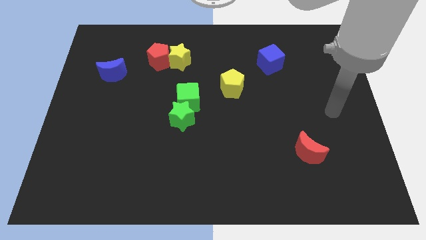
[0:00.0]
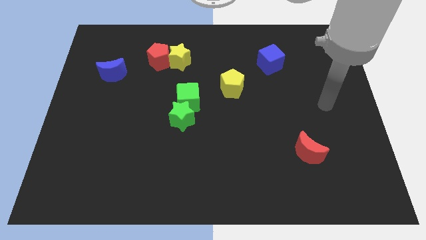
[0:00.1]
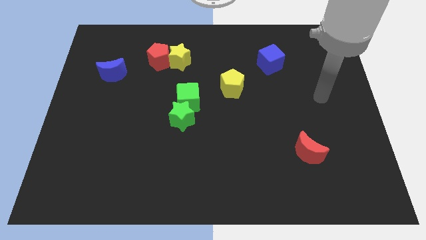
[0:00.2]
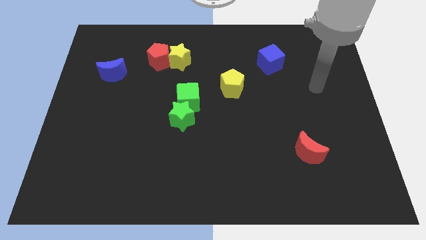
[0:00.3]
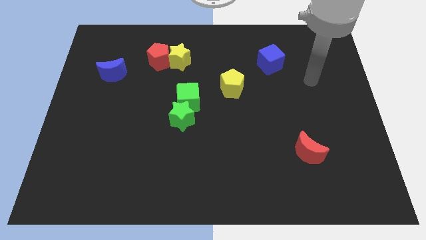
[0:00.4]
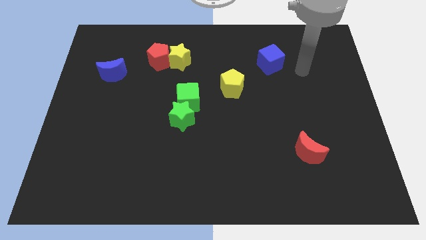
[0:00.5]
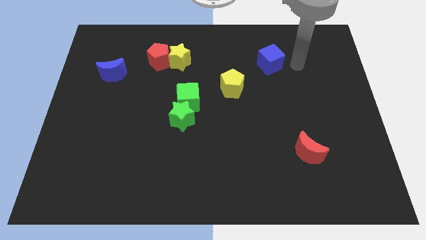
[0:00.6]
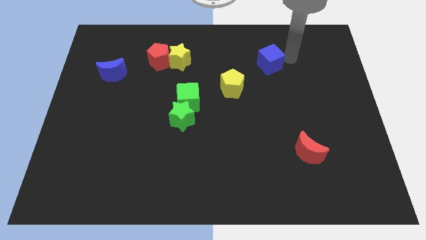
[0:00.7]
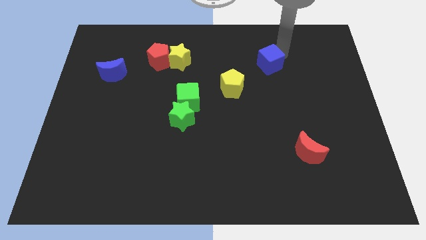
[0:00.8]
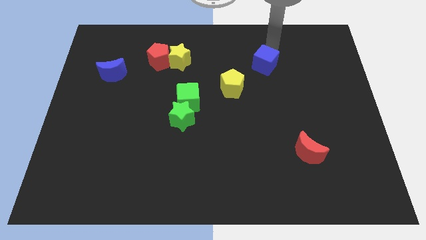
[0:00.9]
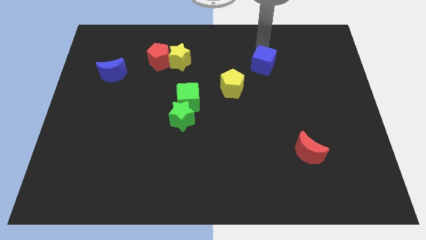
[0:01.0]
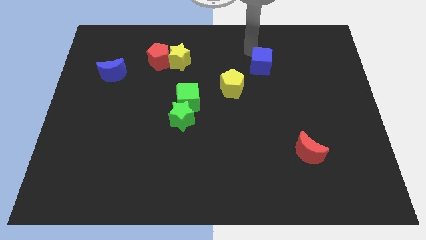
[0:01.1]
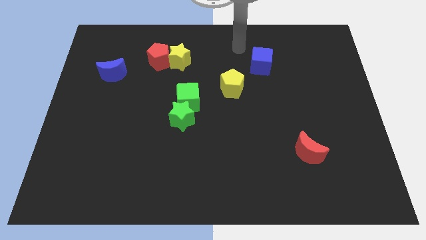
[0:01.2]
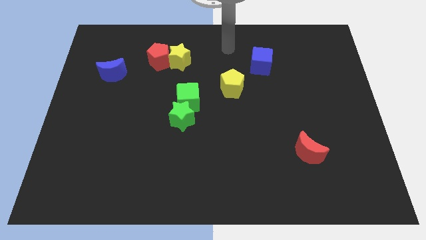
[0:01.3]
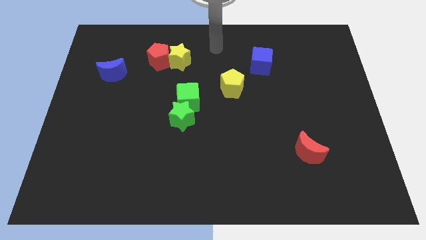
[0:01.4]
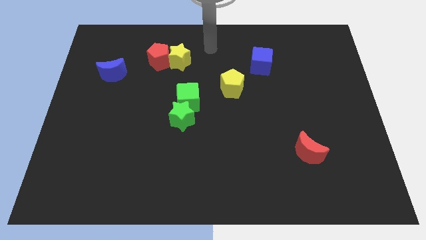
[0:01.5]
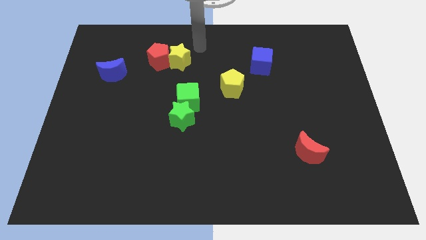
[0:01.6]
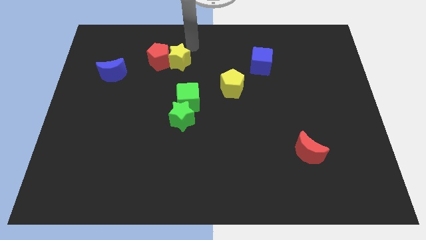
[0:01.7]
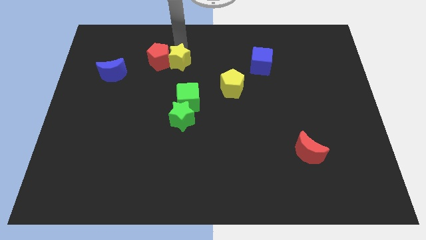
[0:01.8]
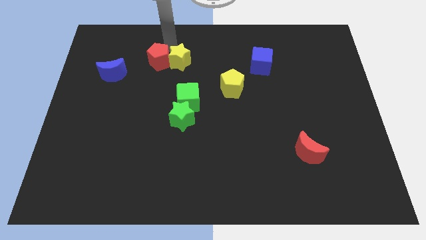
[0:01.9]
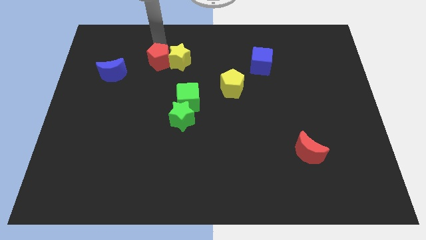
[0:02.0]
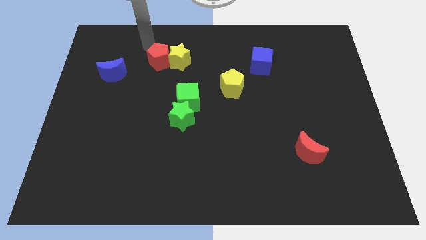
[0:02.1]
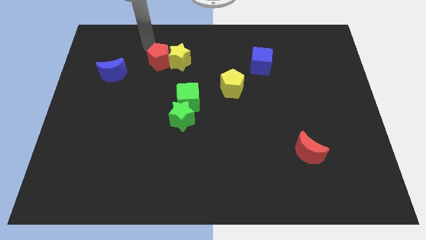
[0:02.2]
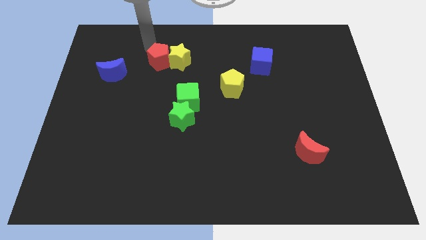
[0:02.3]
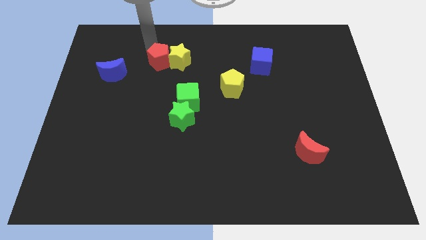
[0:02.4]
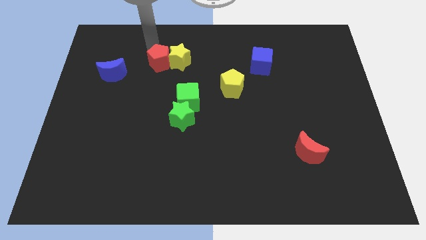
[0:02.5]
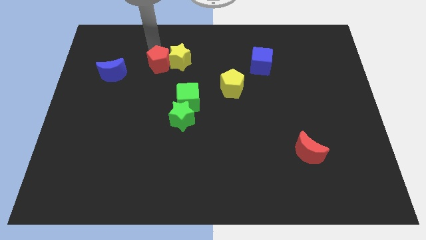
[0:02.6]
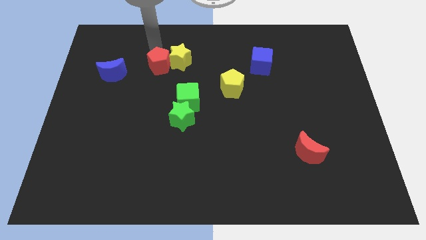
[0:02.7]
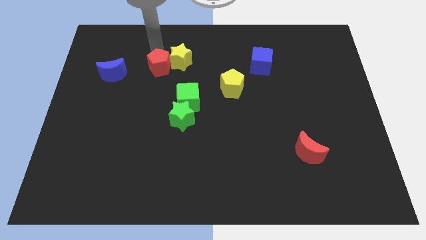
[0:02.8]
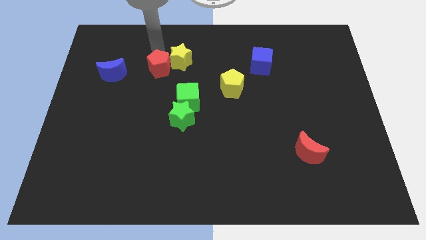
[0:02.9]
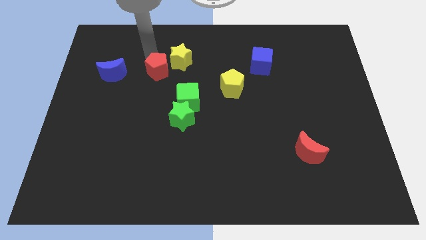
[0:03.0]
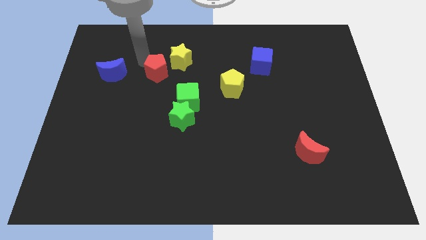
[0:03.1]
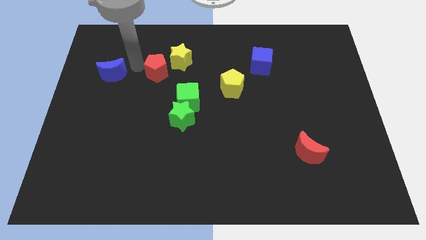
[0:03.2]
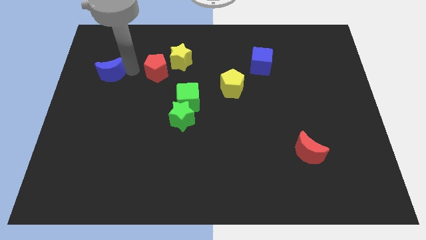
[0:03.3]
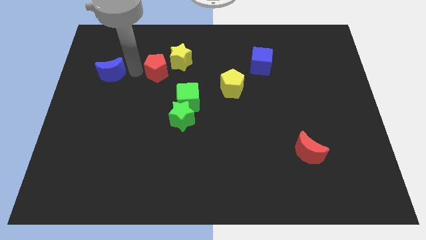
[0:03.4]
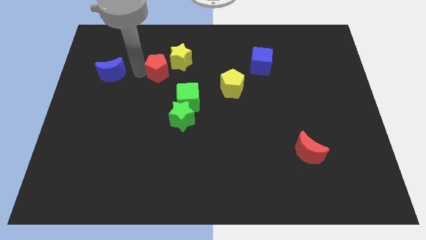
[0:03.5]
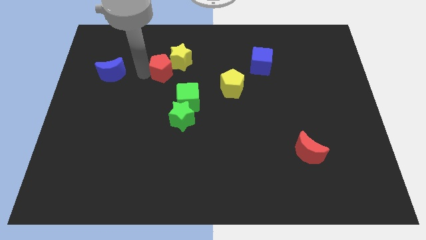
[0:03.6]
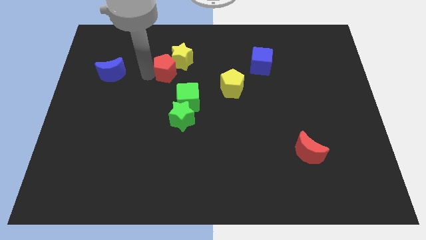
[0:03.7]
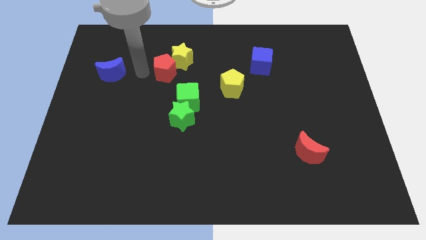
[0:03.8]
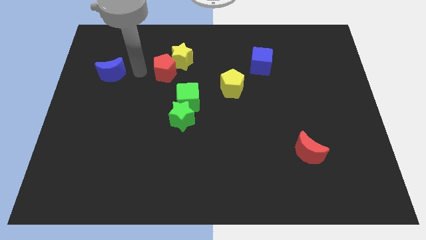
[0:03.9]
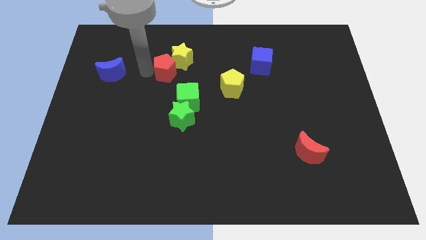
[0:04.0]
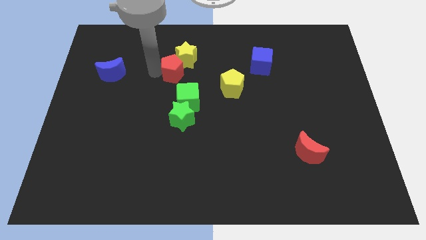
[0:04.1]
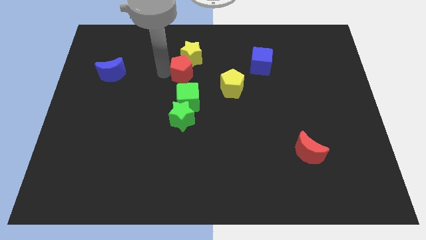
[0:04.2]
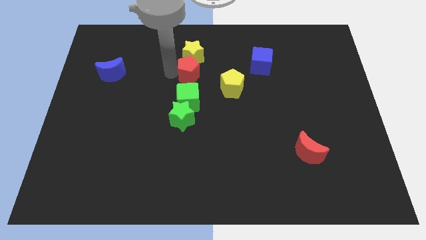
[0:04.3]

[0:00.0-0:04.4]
slide the red pentagon a bit to the right

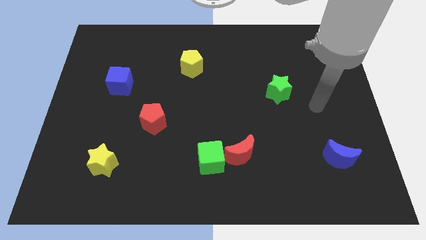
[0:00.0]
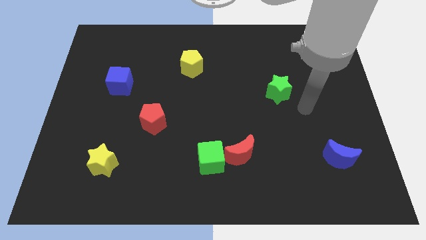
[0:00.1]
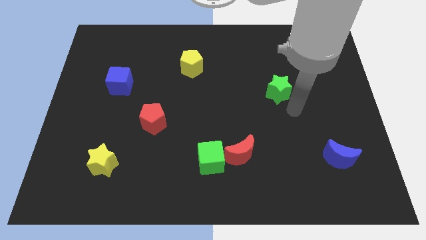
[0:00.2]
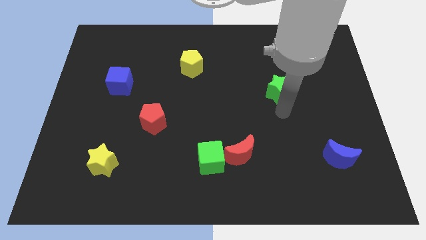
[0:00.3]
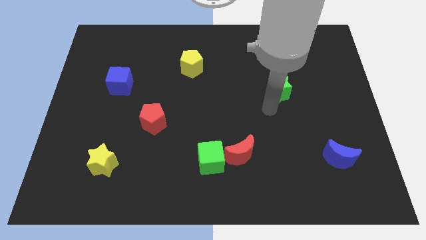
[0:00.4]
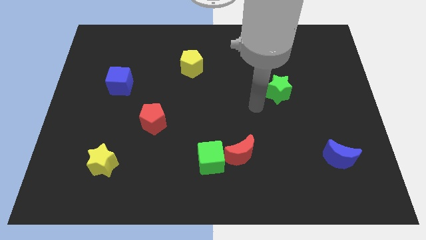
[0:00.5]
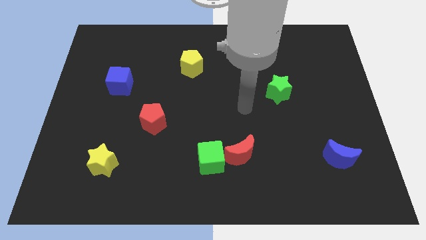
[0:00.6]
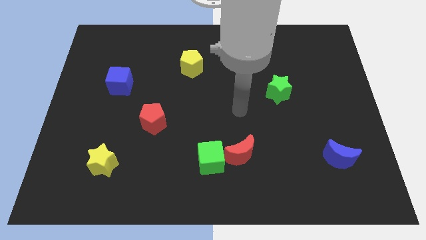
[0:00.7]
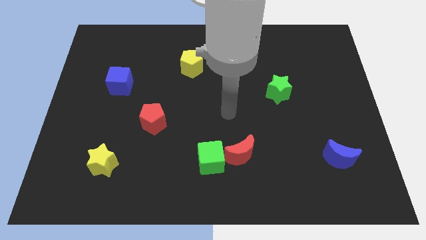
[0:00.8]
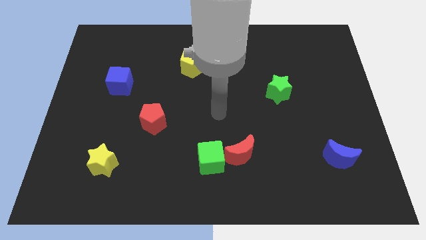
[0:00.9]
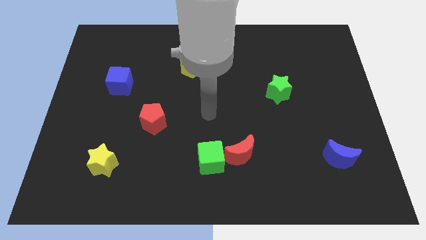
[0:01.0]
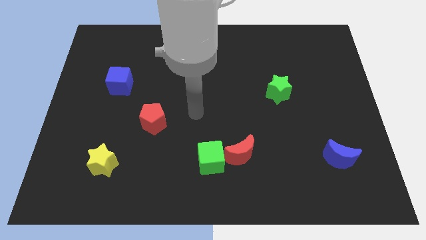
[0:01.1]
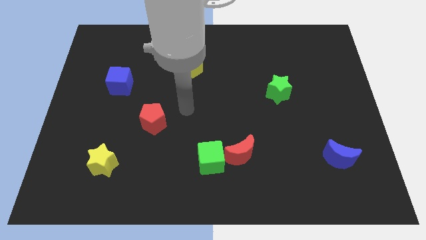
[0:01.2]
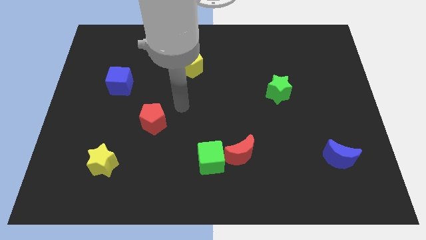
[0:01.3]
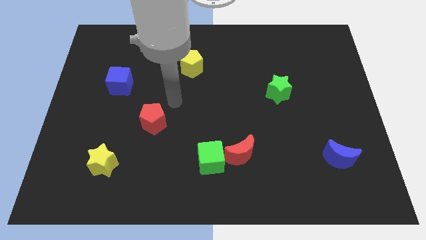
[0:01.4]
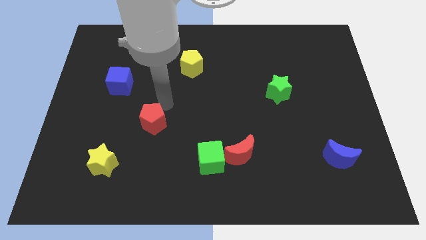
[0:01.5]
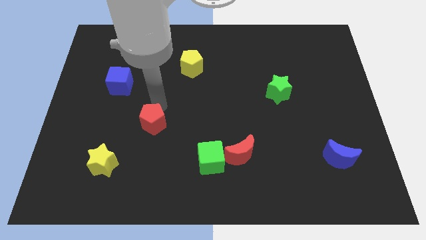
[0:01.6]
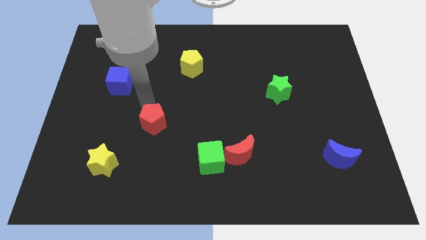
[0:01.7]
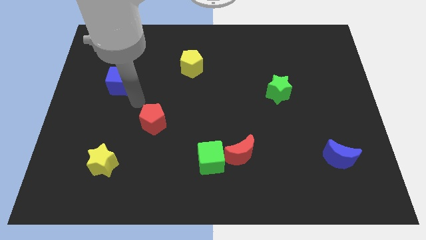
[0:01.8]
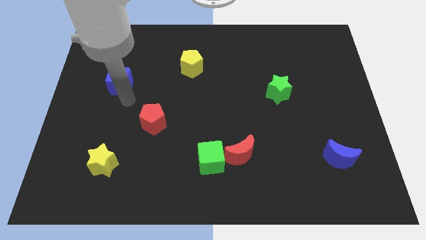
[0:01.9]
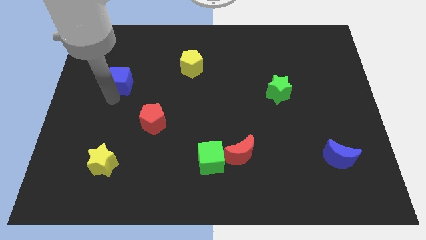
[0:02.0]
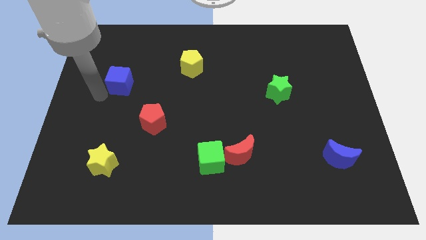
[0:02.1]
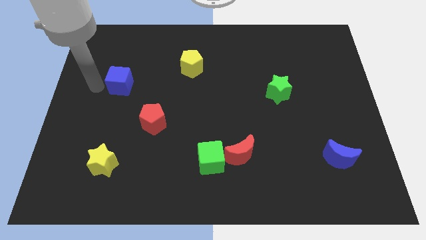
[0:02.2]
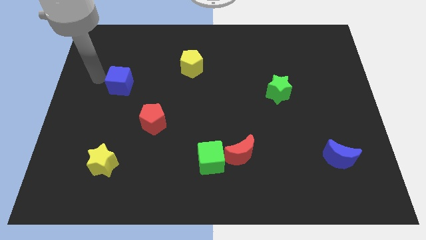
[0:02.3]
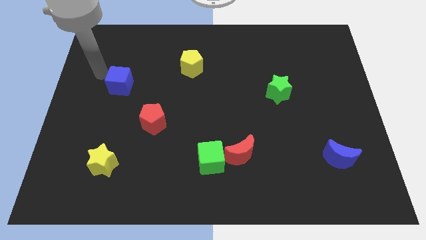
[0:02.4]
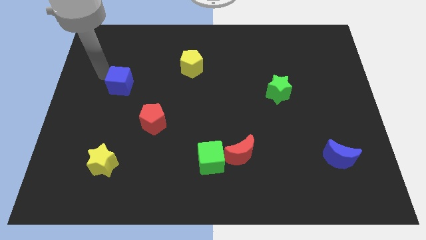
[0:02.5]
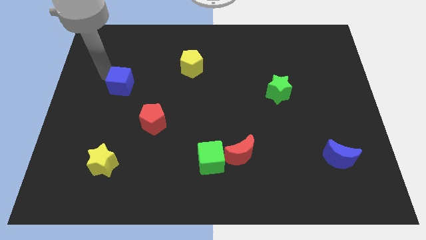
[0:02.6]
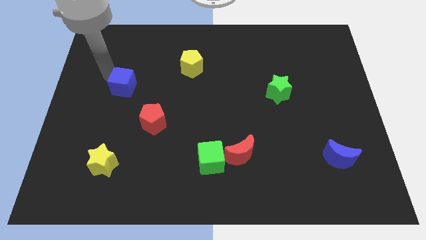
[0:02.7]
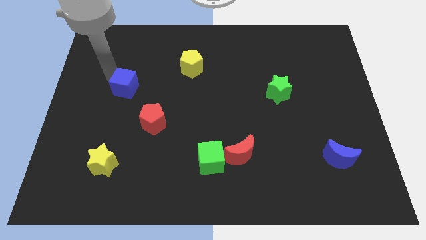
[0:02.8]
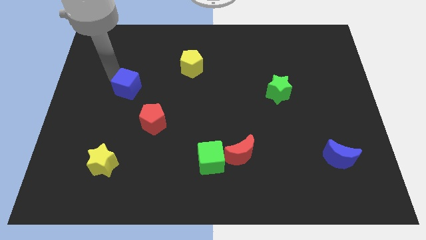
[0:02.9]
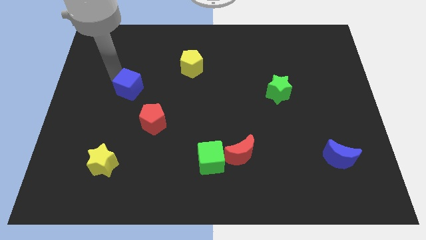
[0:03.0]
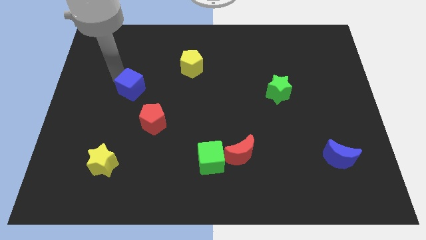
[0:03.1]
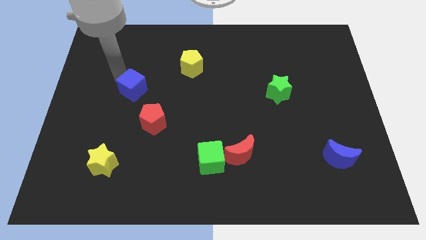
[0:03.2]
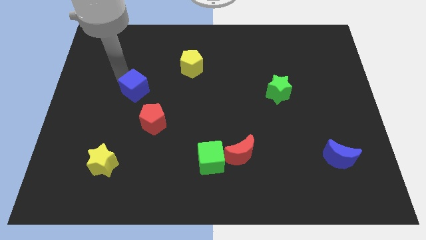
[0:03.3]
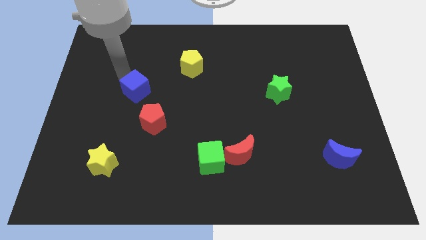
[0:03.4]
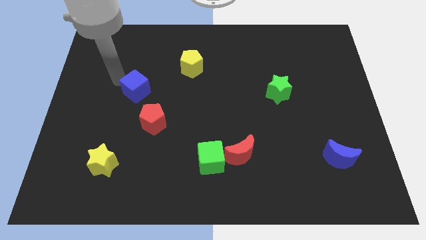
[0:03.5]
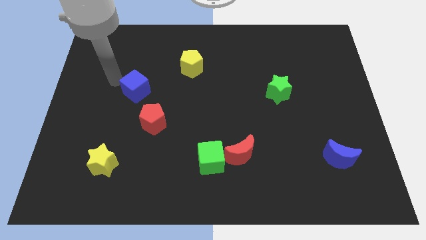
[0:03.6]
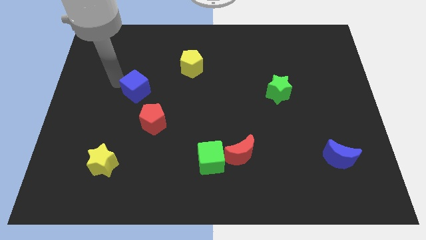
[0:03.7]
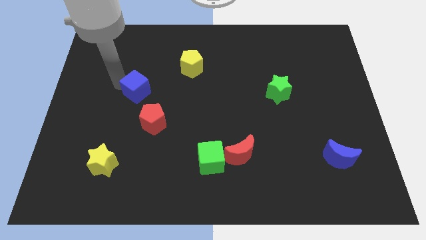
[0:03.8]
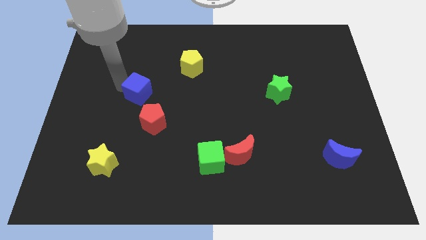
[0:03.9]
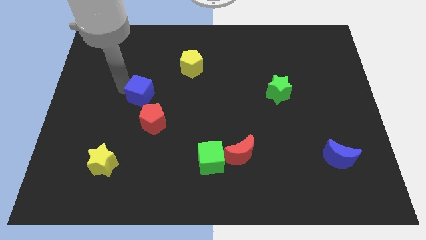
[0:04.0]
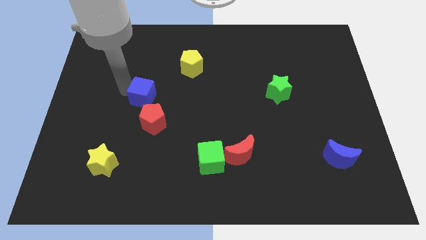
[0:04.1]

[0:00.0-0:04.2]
slide the blue cube a bit downwards and right
